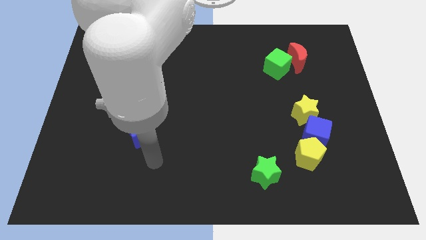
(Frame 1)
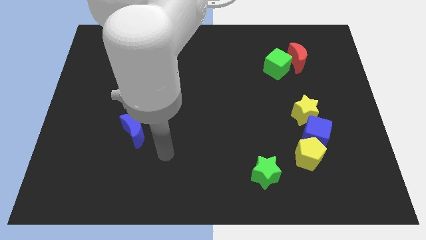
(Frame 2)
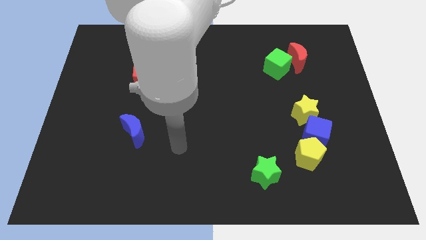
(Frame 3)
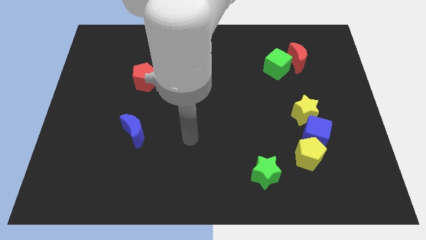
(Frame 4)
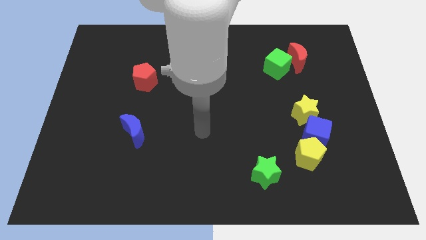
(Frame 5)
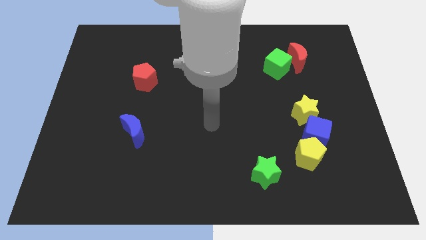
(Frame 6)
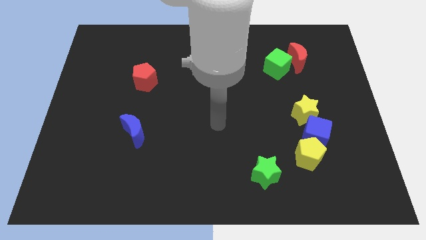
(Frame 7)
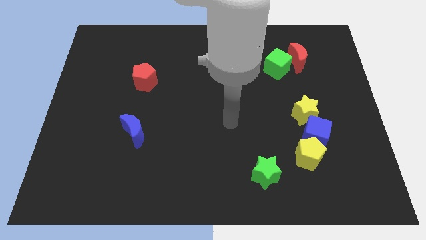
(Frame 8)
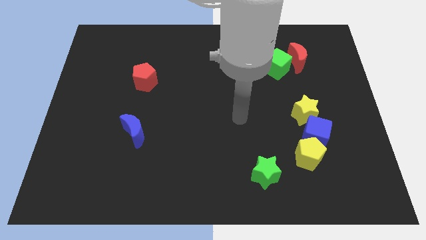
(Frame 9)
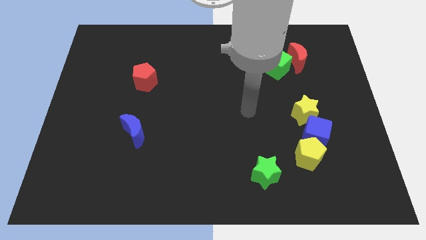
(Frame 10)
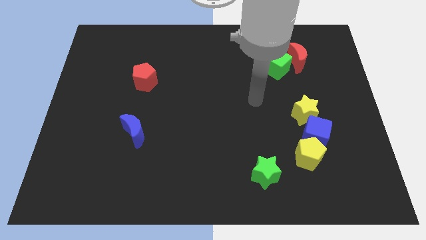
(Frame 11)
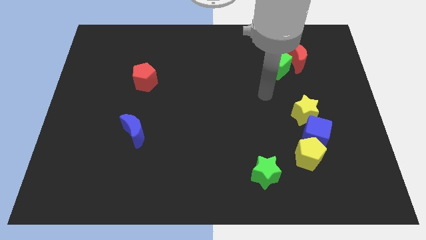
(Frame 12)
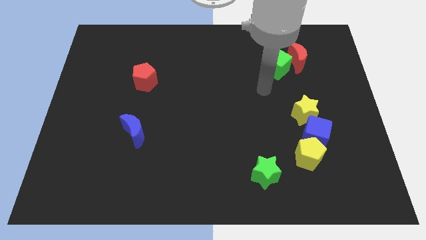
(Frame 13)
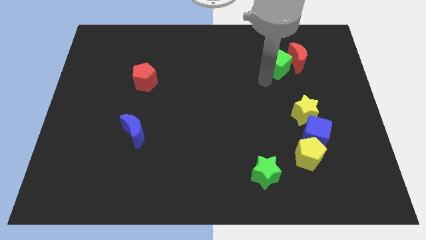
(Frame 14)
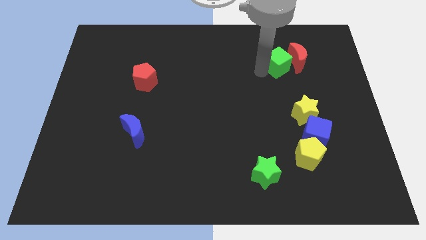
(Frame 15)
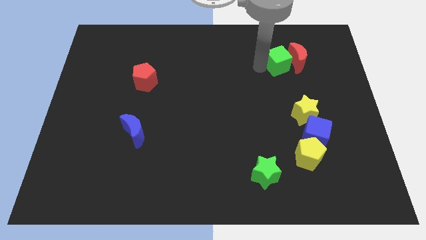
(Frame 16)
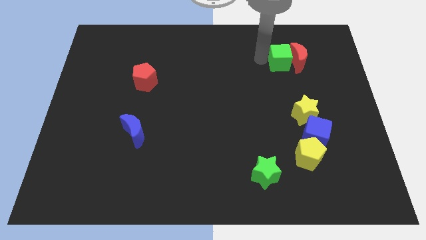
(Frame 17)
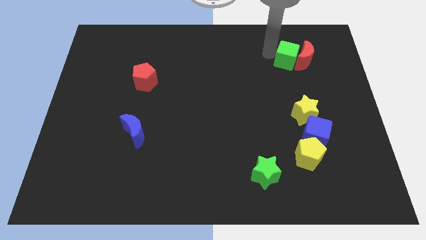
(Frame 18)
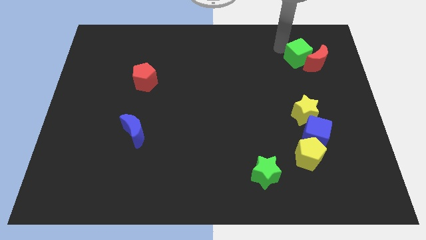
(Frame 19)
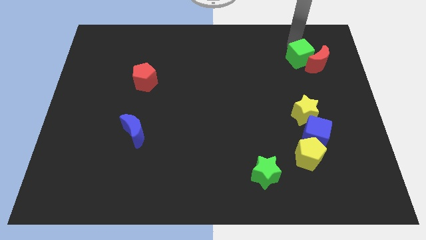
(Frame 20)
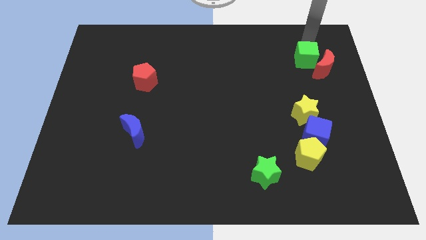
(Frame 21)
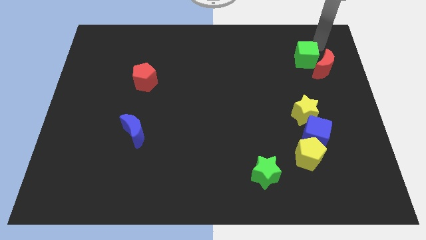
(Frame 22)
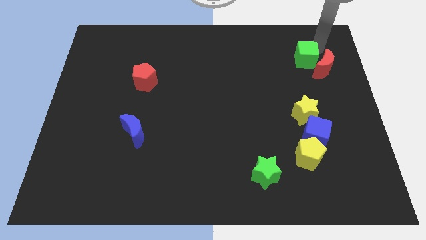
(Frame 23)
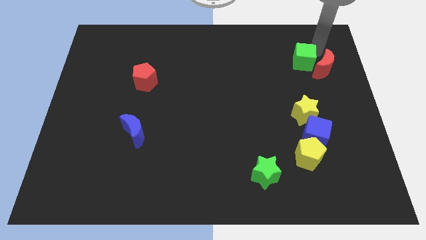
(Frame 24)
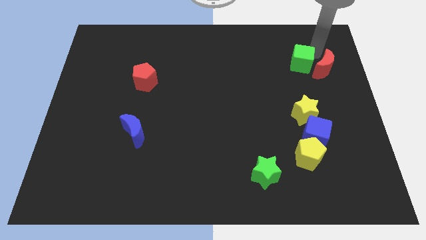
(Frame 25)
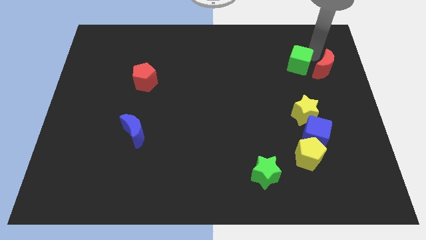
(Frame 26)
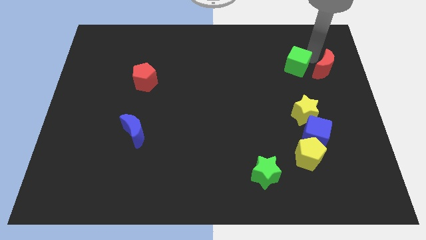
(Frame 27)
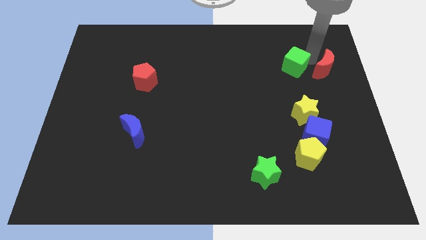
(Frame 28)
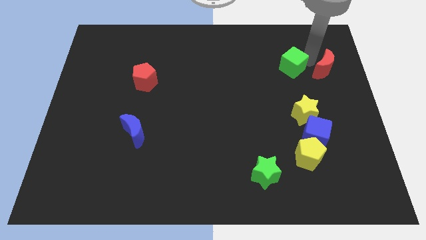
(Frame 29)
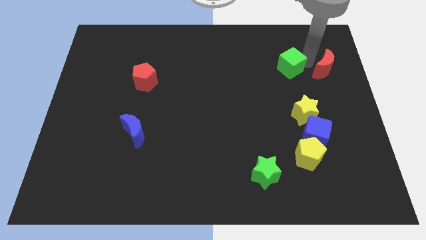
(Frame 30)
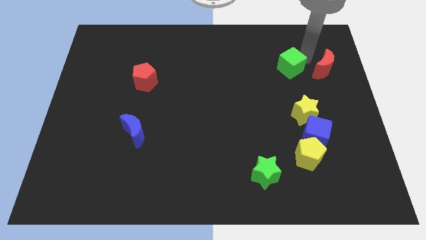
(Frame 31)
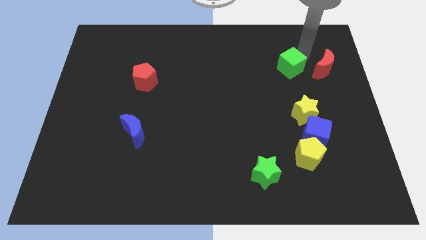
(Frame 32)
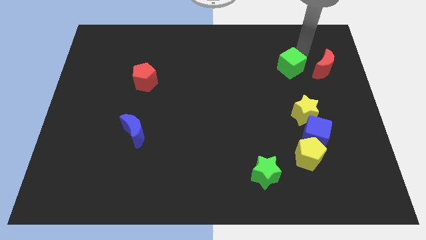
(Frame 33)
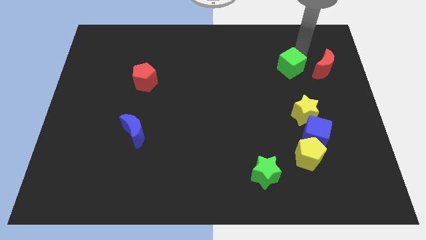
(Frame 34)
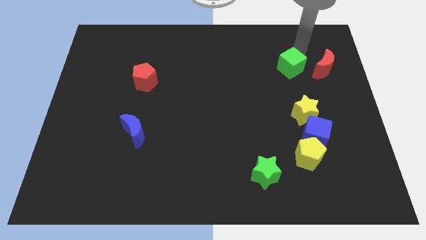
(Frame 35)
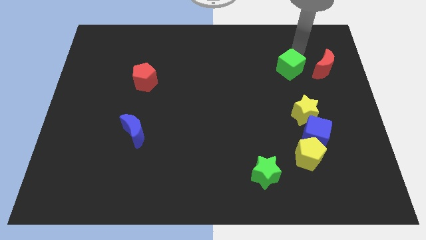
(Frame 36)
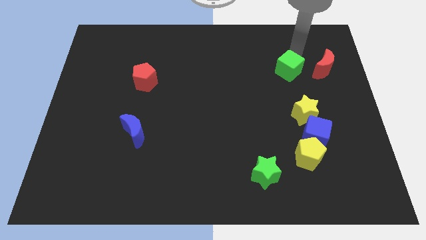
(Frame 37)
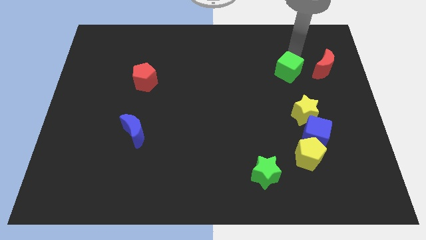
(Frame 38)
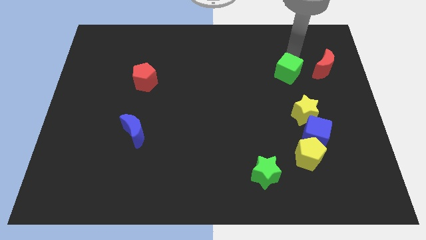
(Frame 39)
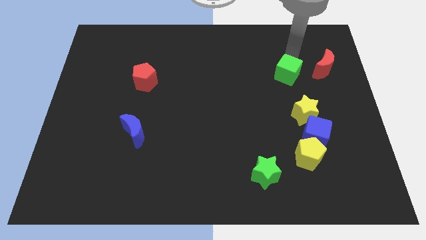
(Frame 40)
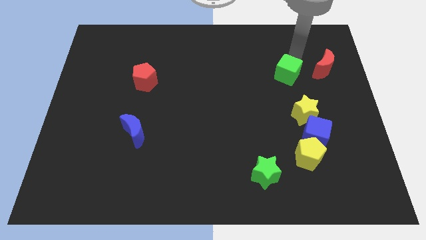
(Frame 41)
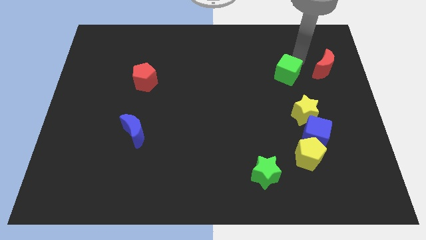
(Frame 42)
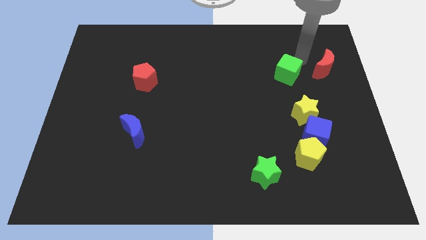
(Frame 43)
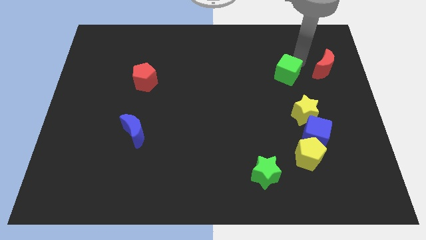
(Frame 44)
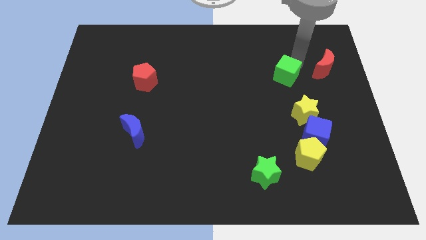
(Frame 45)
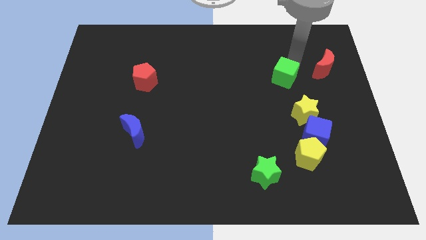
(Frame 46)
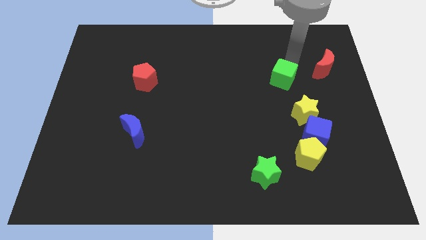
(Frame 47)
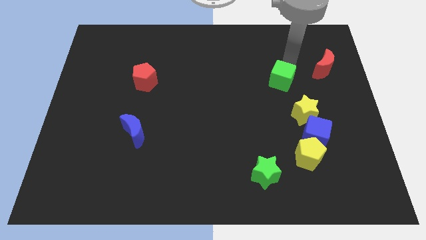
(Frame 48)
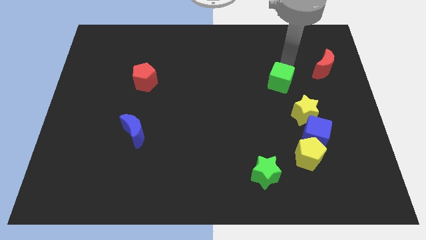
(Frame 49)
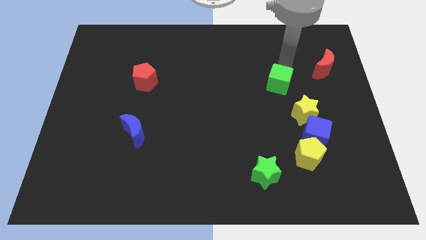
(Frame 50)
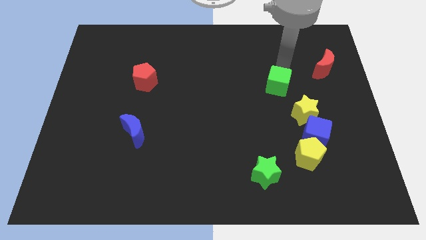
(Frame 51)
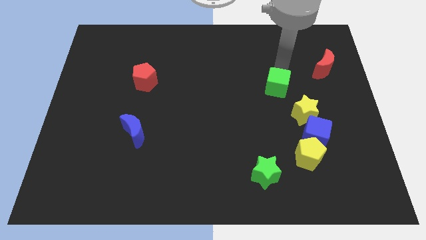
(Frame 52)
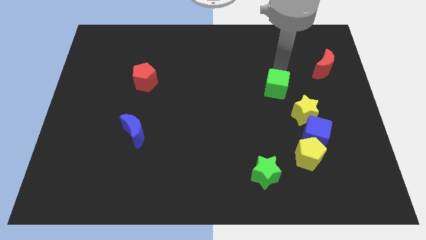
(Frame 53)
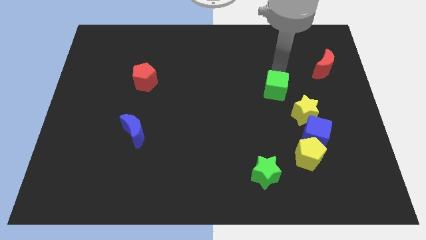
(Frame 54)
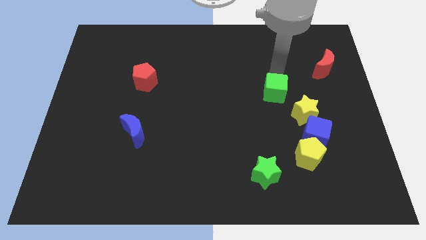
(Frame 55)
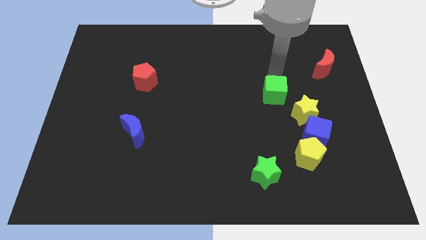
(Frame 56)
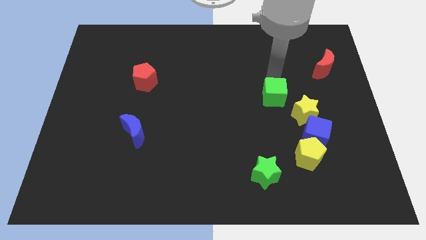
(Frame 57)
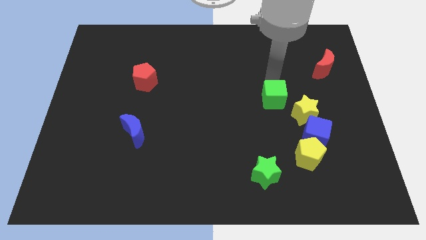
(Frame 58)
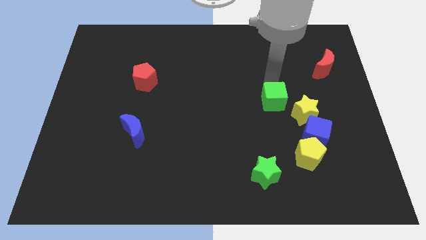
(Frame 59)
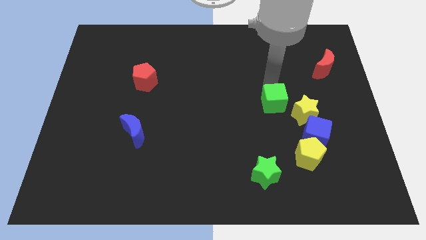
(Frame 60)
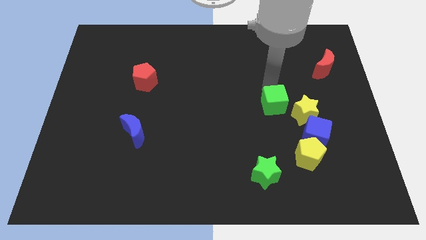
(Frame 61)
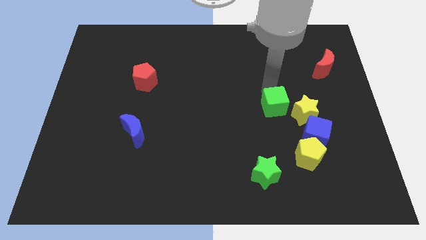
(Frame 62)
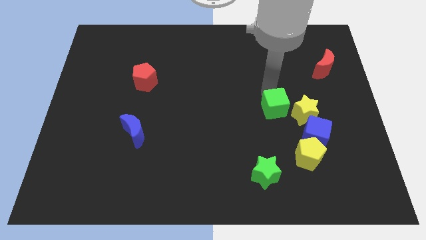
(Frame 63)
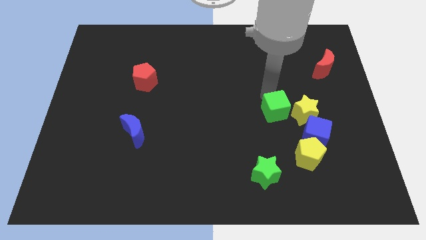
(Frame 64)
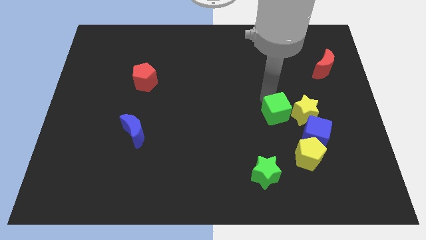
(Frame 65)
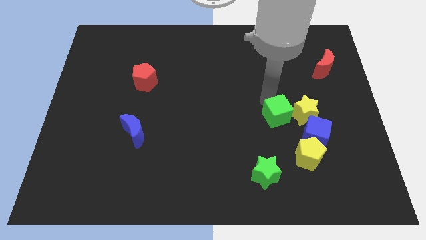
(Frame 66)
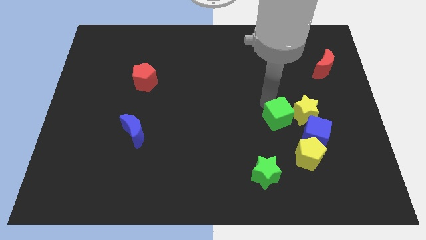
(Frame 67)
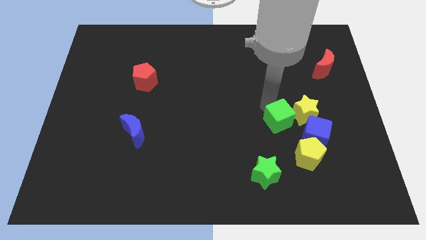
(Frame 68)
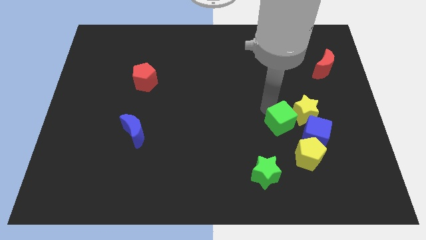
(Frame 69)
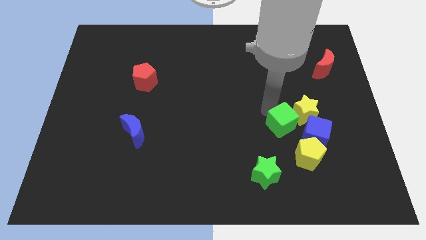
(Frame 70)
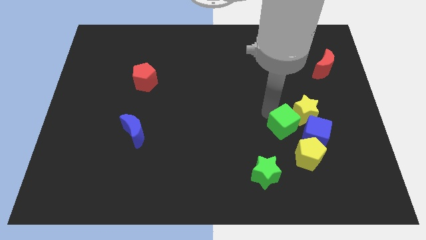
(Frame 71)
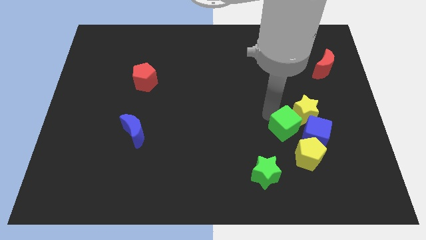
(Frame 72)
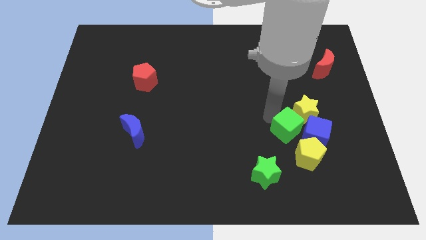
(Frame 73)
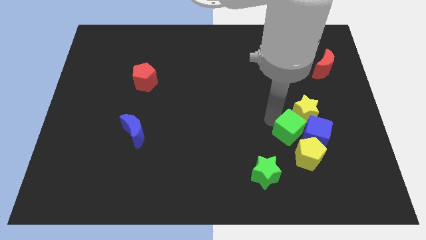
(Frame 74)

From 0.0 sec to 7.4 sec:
move the green cube to the blue cube
